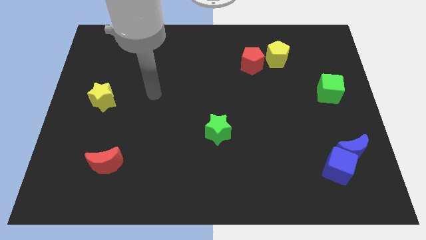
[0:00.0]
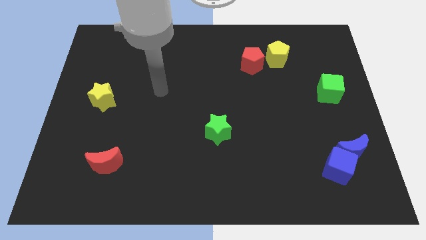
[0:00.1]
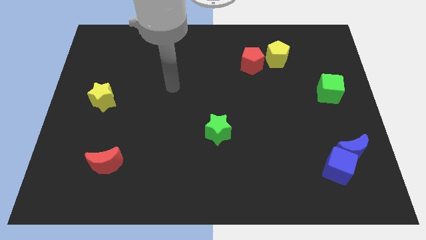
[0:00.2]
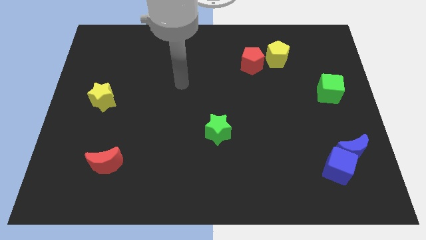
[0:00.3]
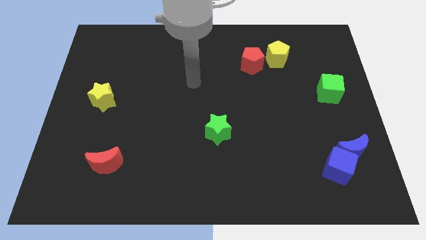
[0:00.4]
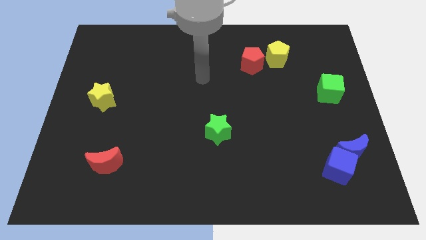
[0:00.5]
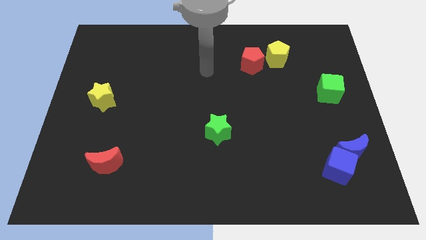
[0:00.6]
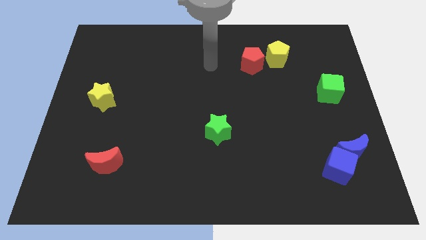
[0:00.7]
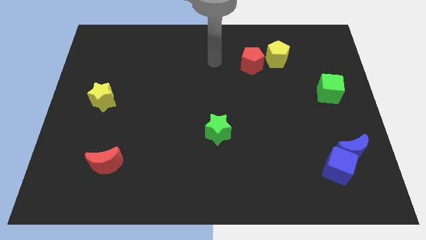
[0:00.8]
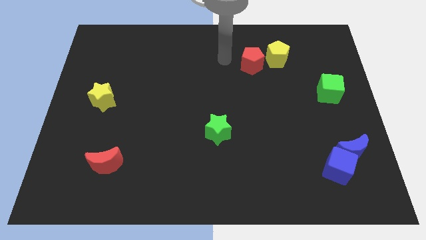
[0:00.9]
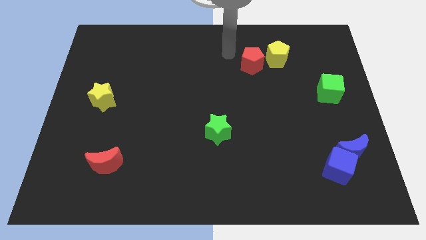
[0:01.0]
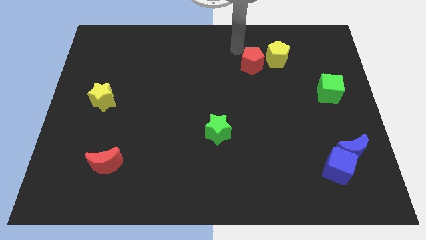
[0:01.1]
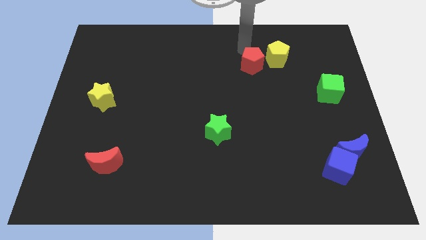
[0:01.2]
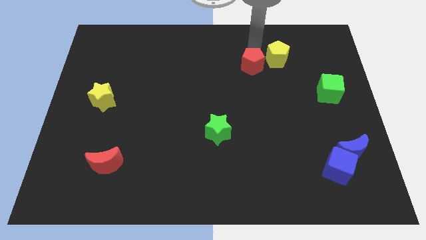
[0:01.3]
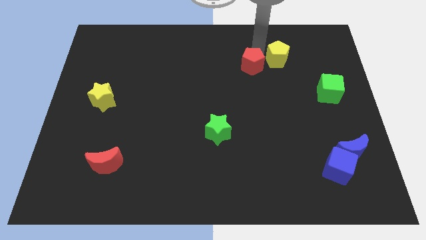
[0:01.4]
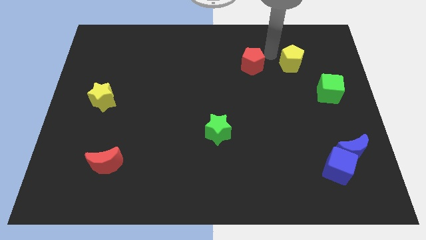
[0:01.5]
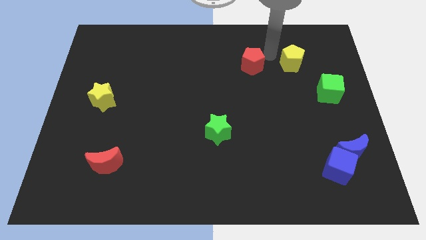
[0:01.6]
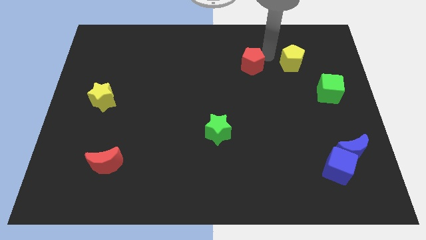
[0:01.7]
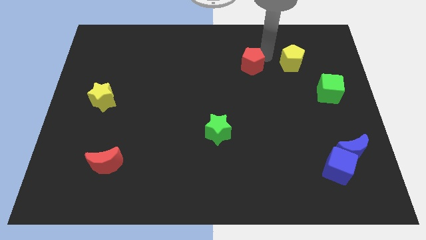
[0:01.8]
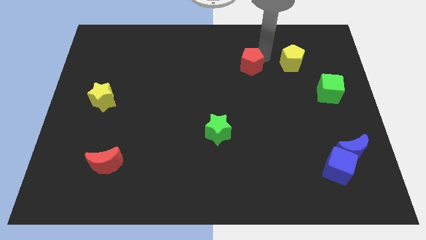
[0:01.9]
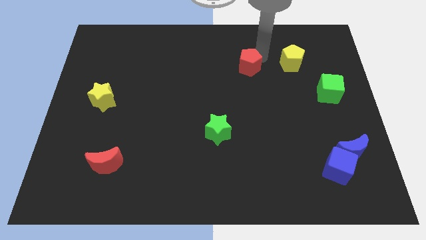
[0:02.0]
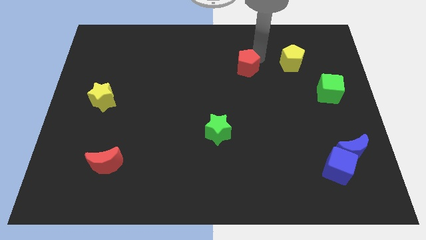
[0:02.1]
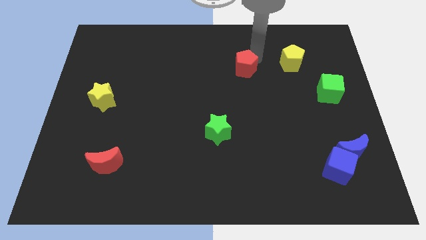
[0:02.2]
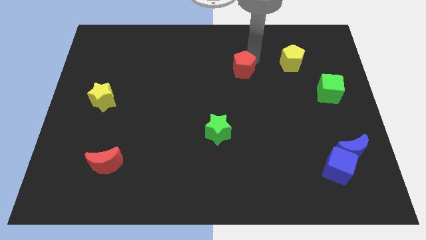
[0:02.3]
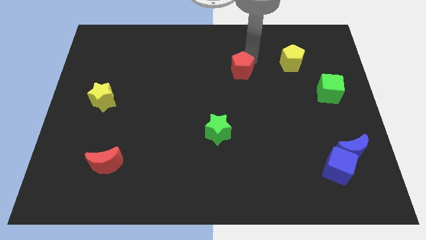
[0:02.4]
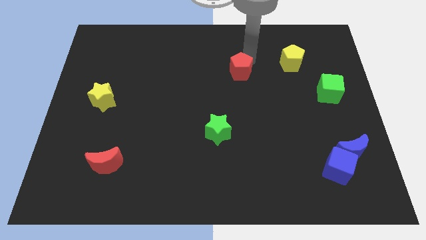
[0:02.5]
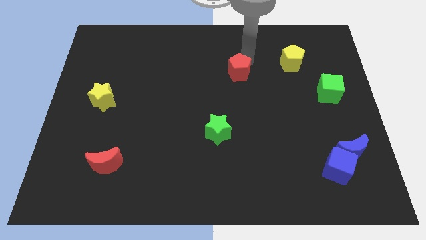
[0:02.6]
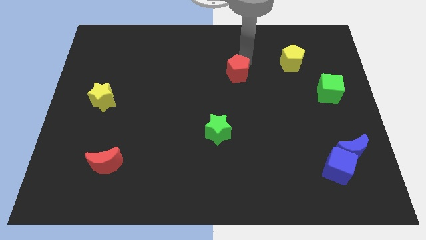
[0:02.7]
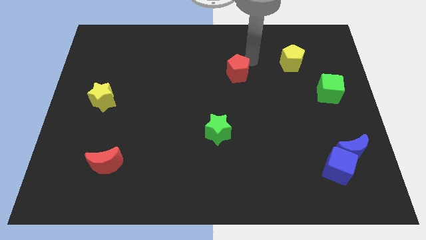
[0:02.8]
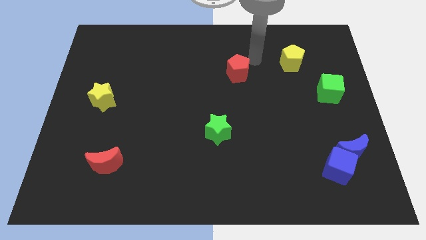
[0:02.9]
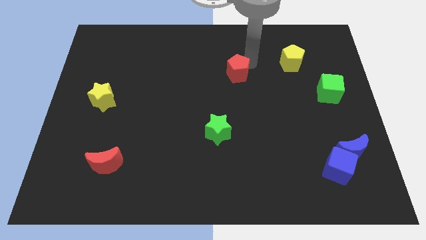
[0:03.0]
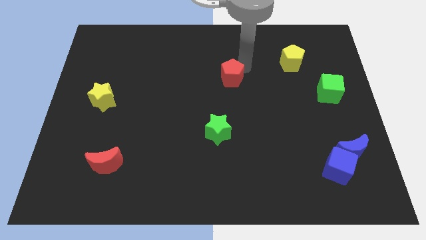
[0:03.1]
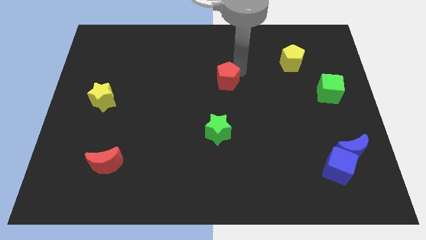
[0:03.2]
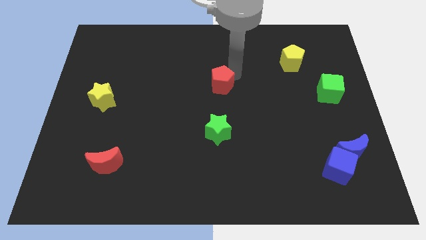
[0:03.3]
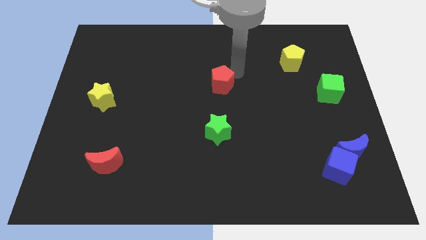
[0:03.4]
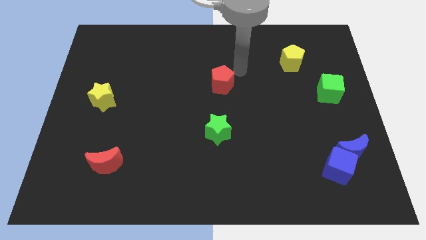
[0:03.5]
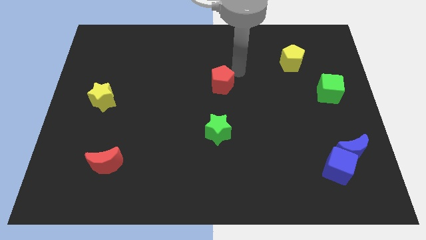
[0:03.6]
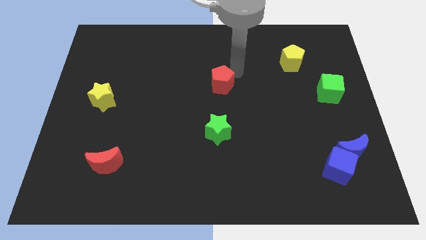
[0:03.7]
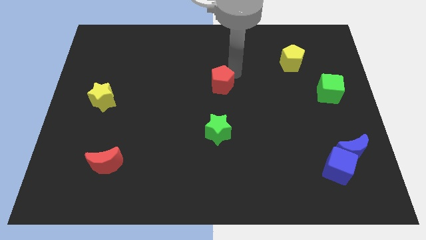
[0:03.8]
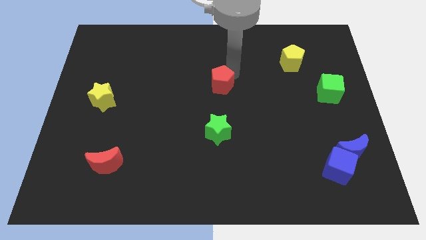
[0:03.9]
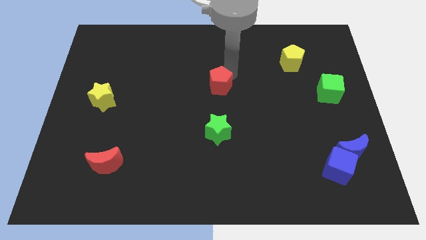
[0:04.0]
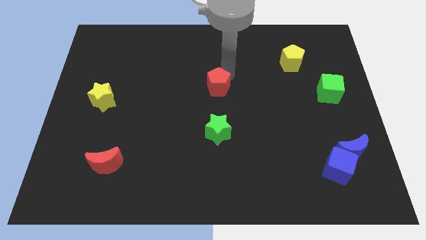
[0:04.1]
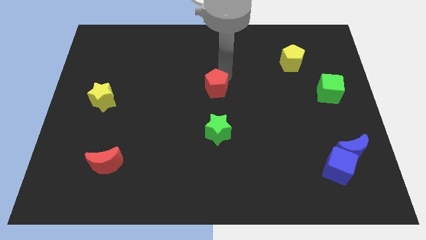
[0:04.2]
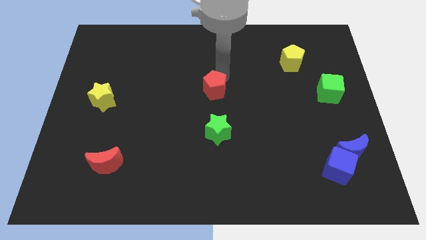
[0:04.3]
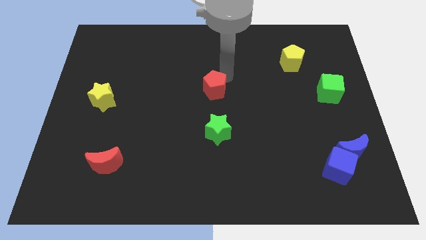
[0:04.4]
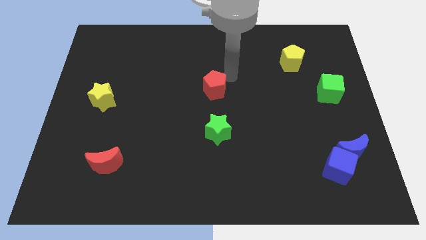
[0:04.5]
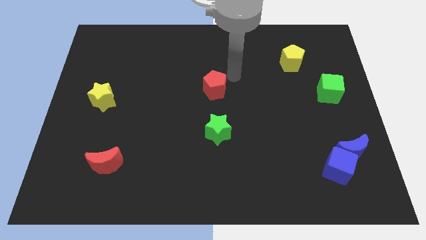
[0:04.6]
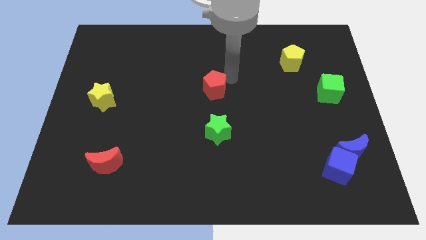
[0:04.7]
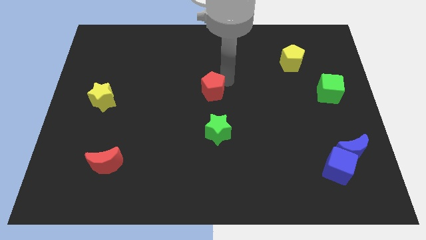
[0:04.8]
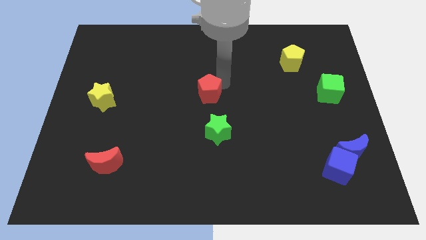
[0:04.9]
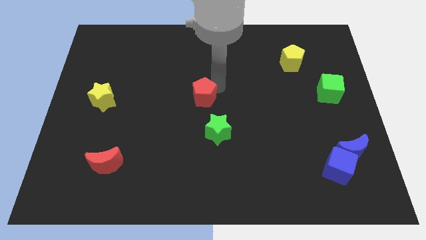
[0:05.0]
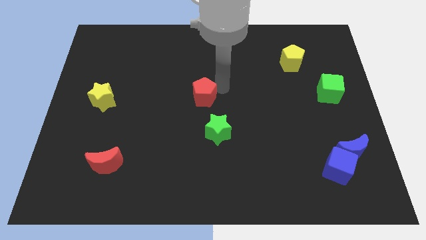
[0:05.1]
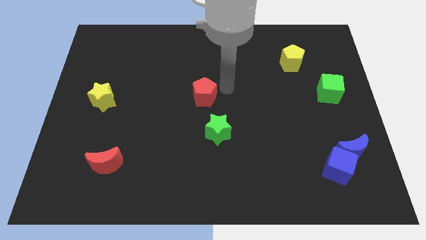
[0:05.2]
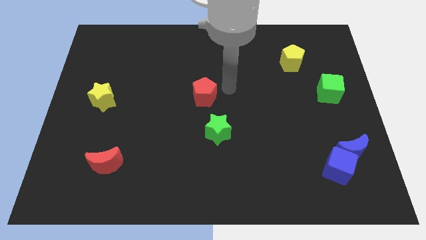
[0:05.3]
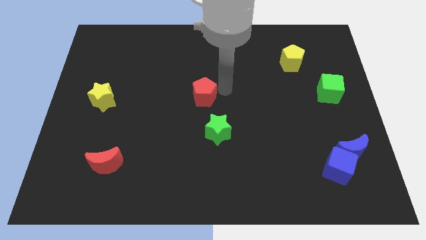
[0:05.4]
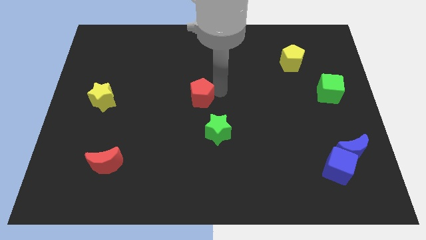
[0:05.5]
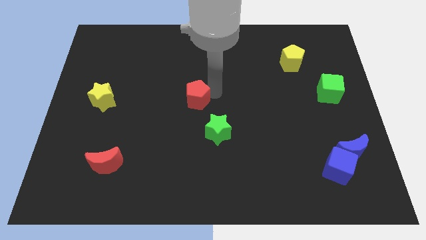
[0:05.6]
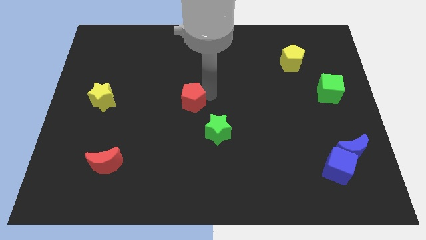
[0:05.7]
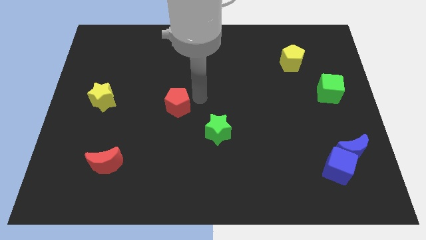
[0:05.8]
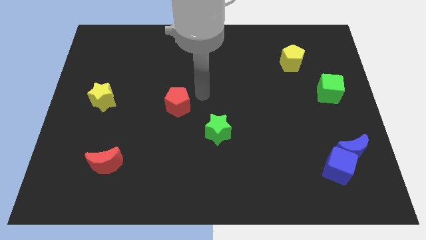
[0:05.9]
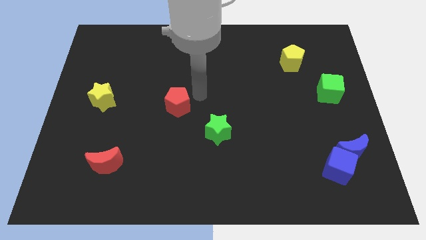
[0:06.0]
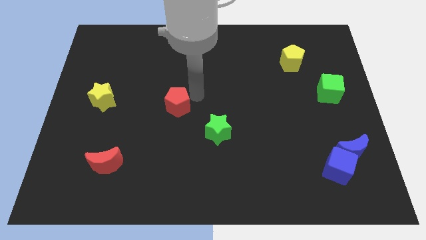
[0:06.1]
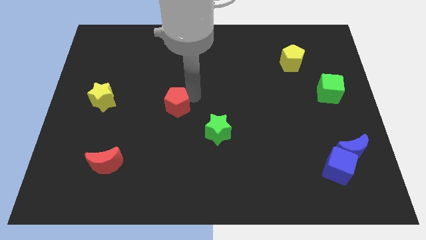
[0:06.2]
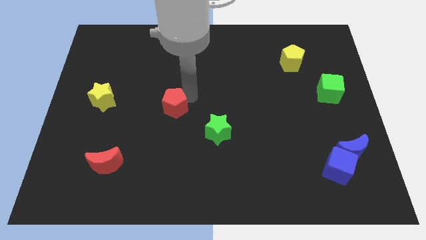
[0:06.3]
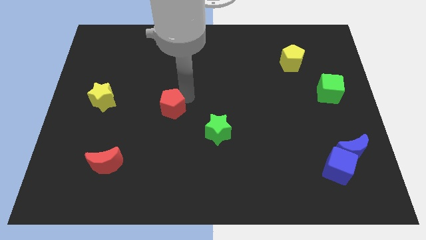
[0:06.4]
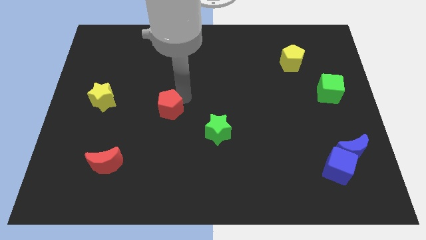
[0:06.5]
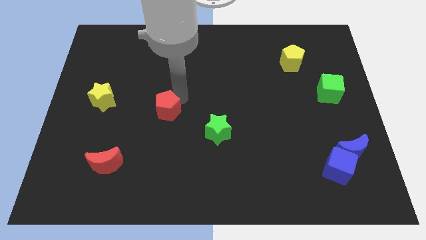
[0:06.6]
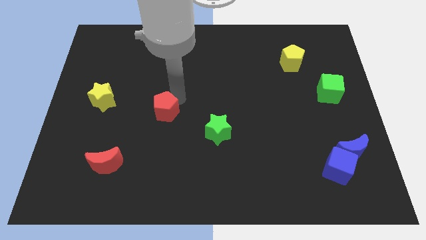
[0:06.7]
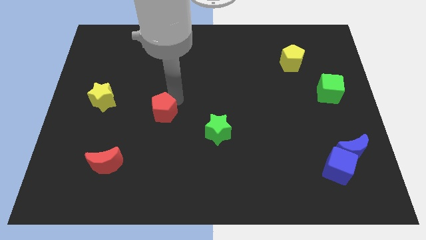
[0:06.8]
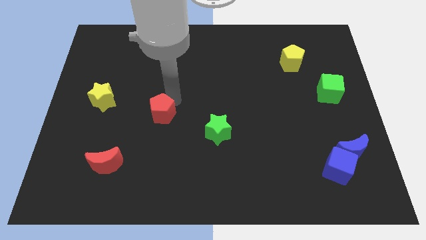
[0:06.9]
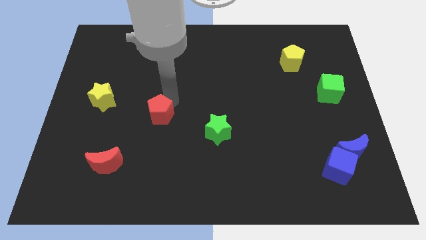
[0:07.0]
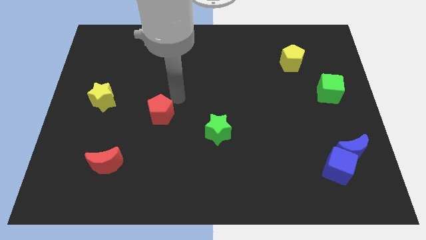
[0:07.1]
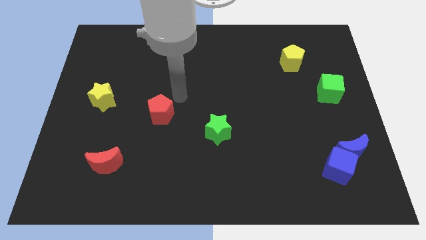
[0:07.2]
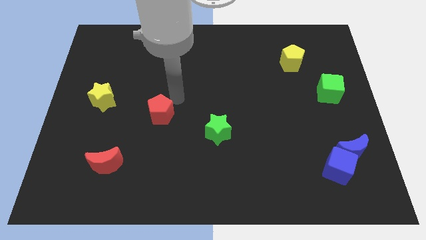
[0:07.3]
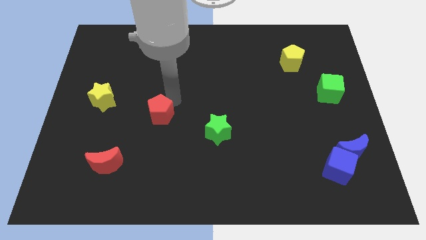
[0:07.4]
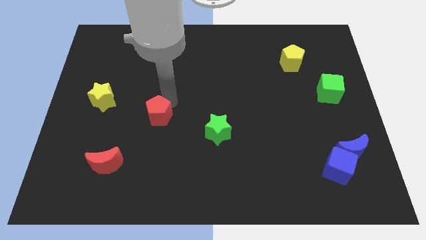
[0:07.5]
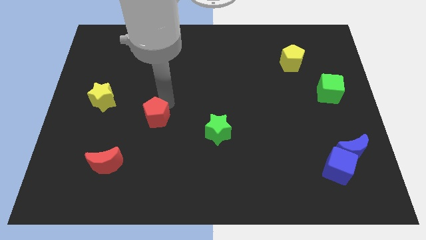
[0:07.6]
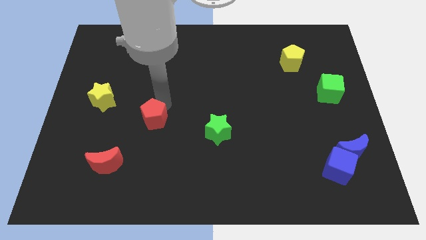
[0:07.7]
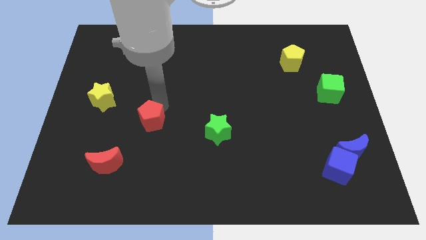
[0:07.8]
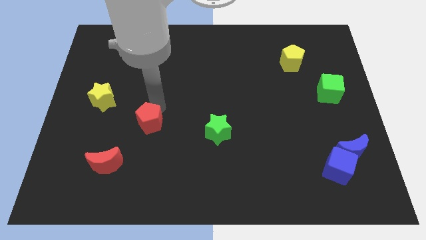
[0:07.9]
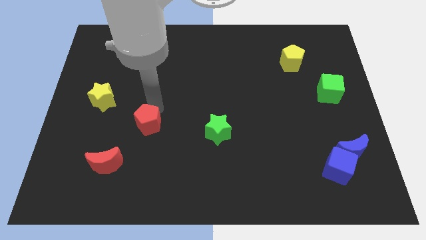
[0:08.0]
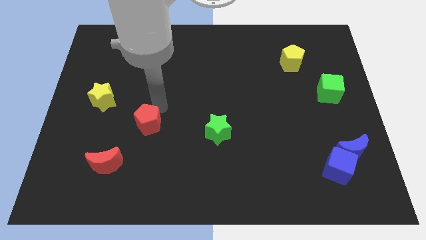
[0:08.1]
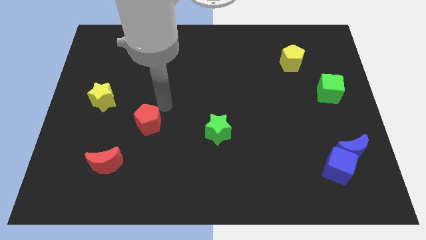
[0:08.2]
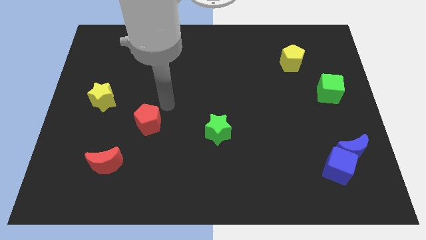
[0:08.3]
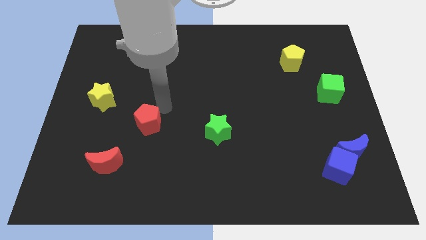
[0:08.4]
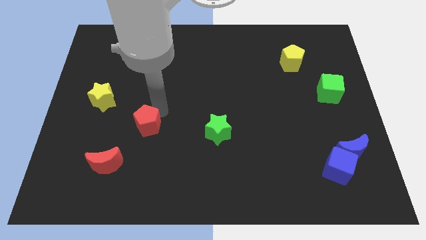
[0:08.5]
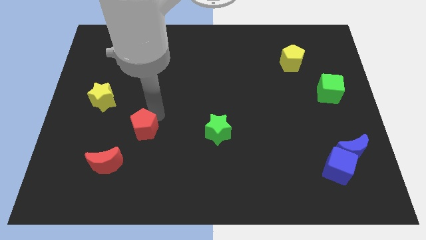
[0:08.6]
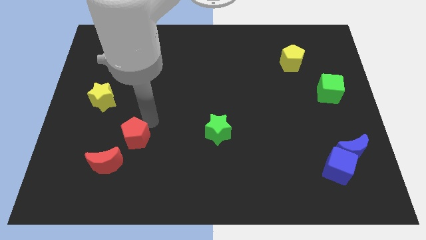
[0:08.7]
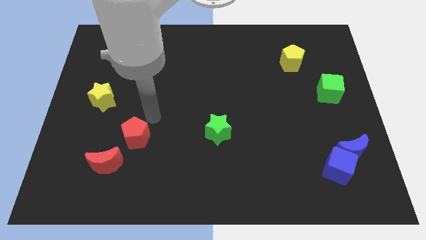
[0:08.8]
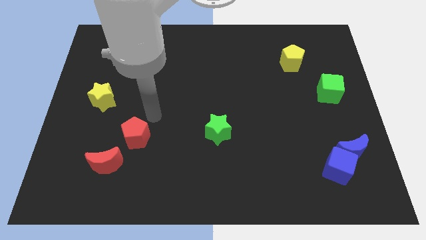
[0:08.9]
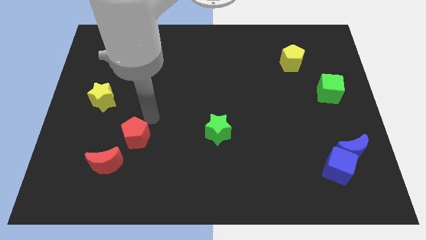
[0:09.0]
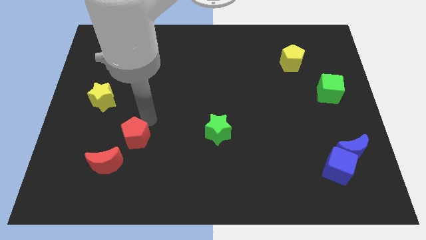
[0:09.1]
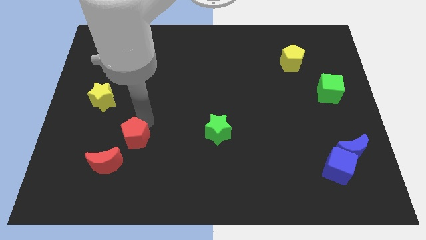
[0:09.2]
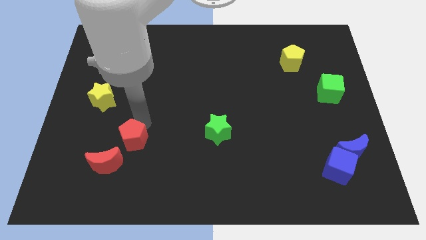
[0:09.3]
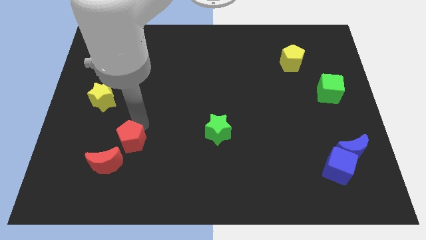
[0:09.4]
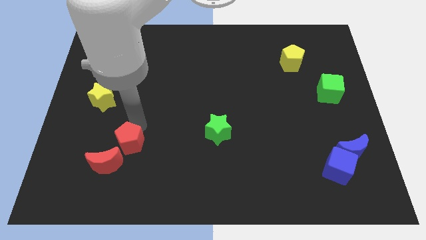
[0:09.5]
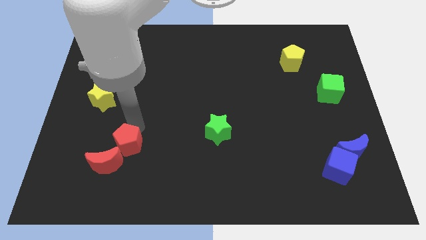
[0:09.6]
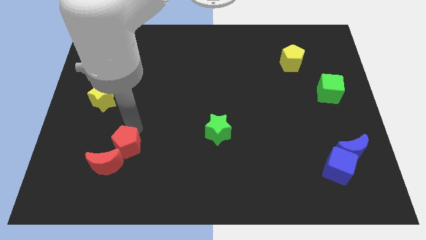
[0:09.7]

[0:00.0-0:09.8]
move the red pentagon close to the red moon
